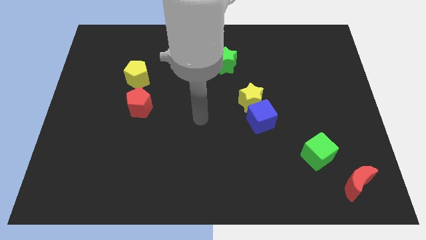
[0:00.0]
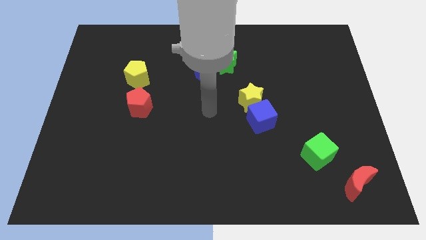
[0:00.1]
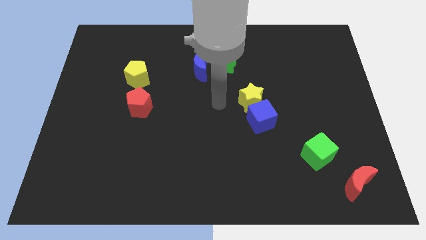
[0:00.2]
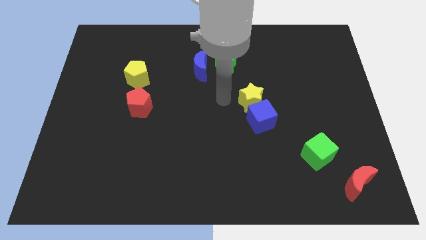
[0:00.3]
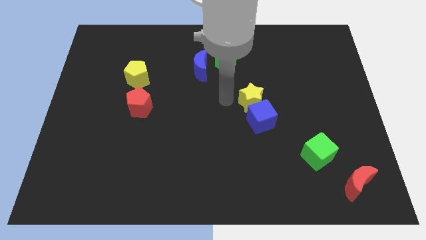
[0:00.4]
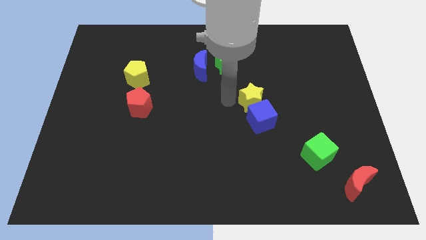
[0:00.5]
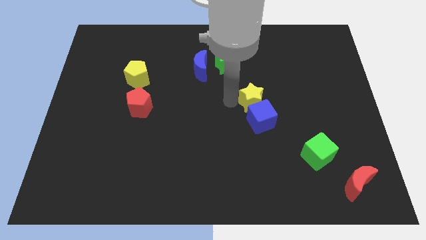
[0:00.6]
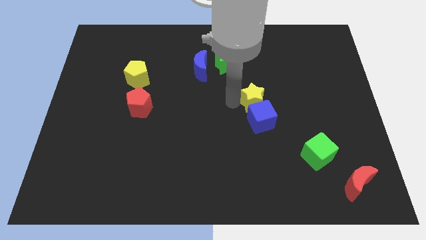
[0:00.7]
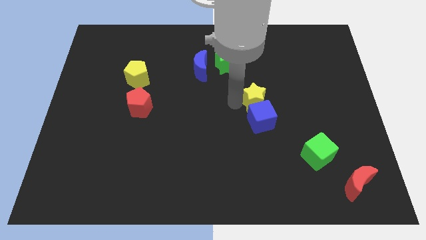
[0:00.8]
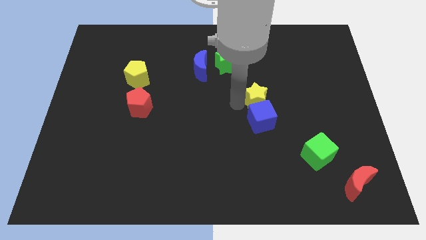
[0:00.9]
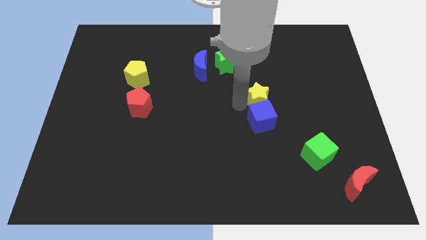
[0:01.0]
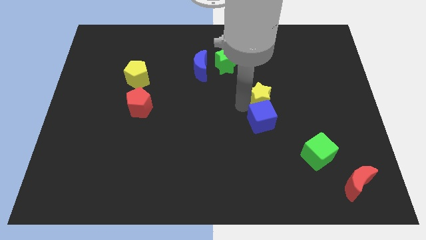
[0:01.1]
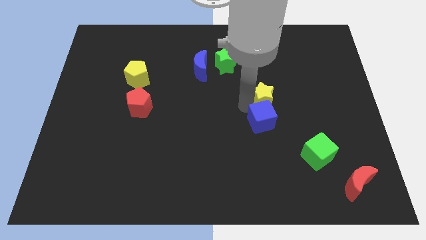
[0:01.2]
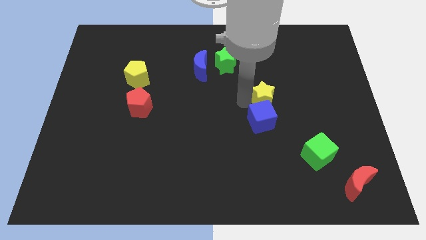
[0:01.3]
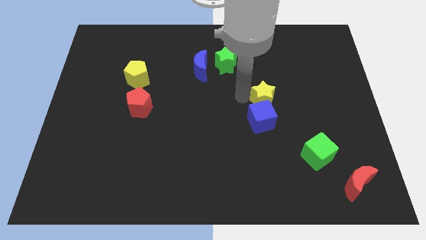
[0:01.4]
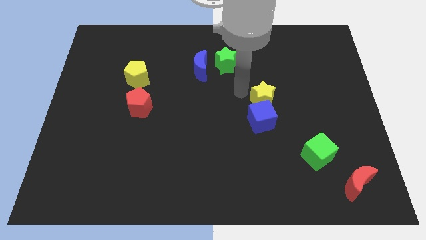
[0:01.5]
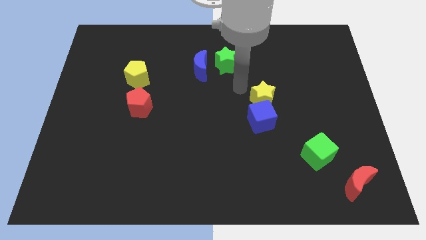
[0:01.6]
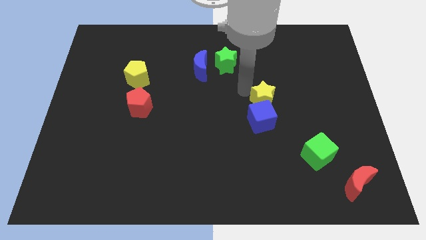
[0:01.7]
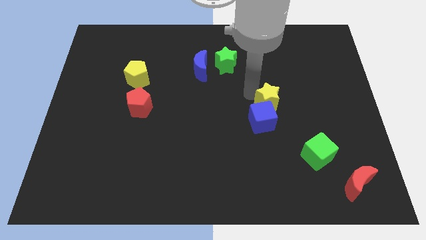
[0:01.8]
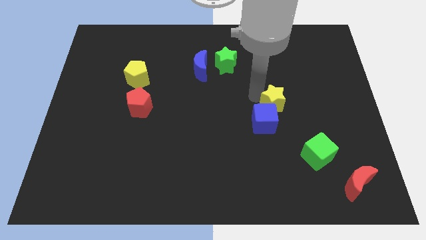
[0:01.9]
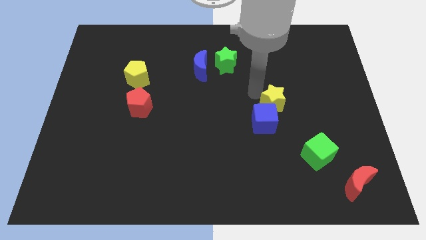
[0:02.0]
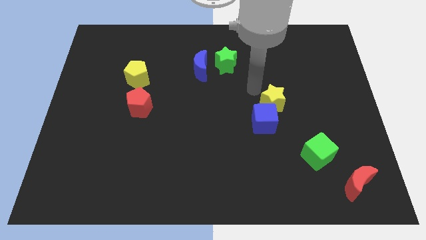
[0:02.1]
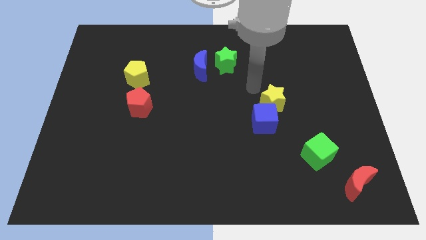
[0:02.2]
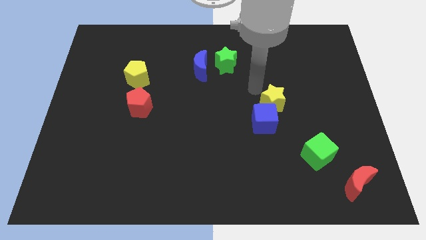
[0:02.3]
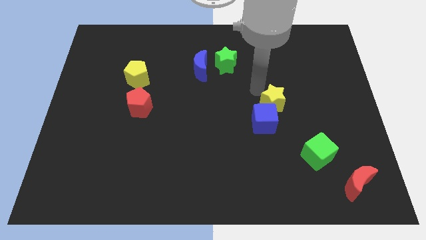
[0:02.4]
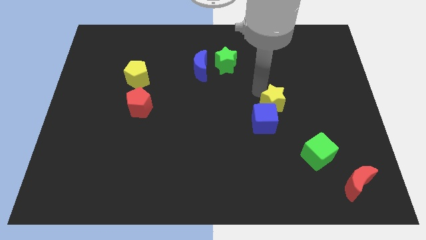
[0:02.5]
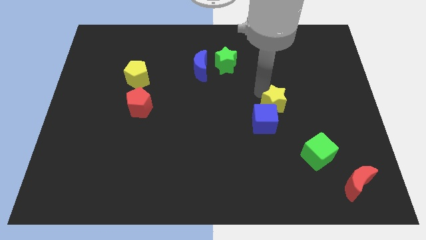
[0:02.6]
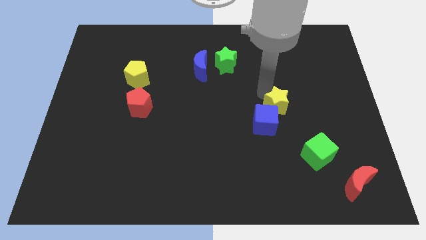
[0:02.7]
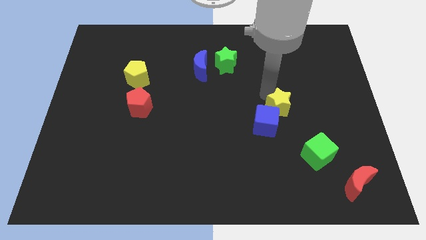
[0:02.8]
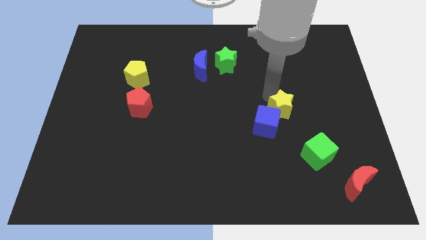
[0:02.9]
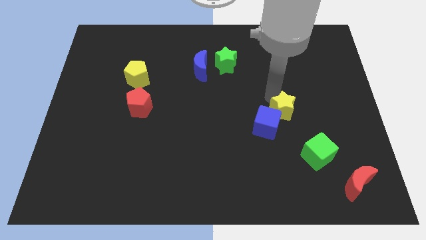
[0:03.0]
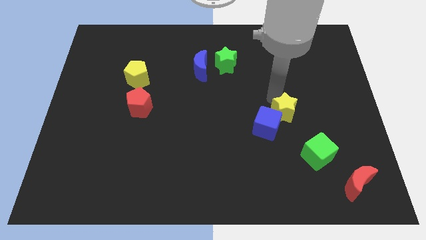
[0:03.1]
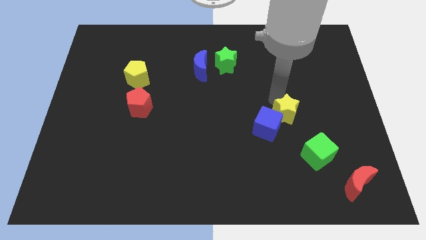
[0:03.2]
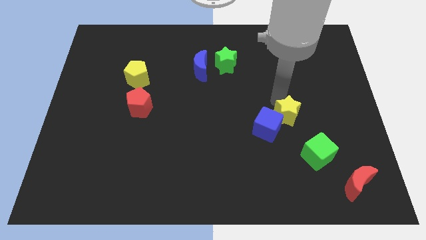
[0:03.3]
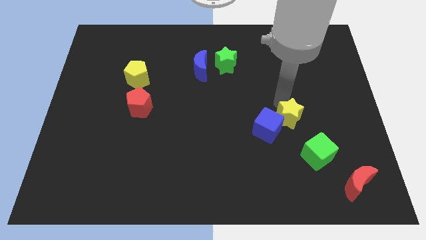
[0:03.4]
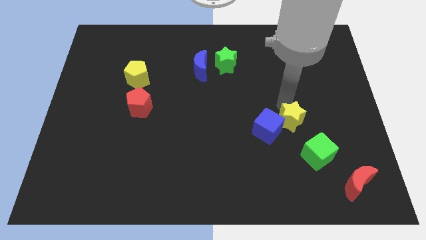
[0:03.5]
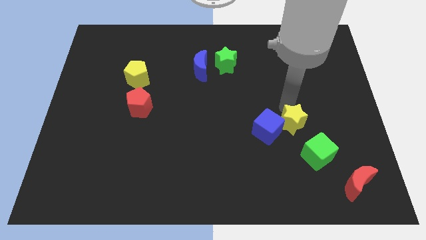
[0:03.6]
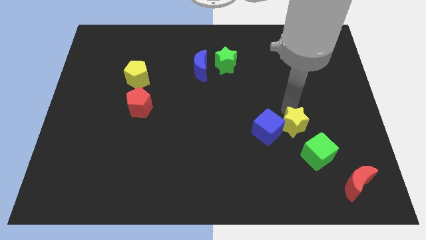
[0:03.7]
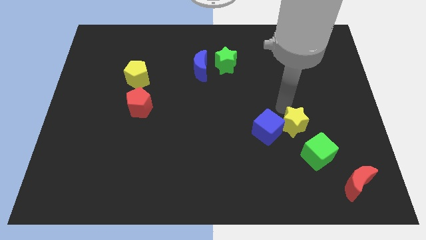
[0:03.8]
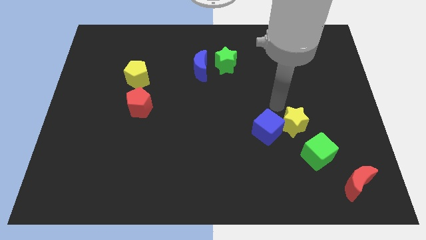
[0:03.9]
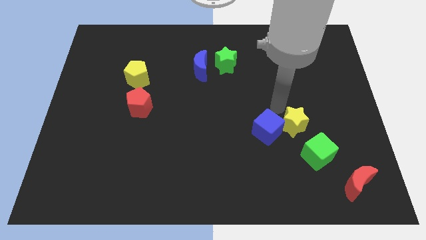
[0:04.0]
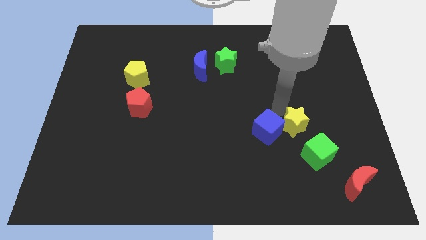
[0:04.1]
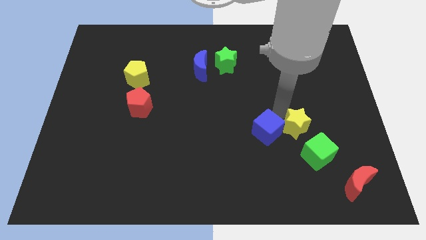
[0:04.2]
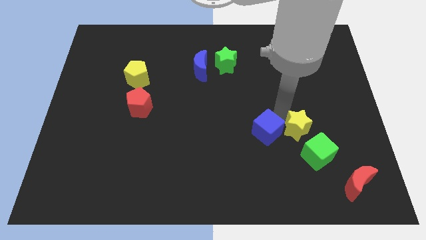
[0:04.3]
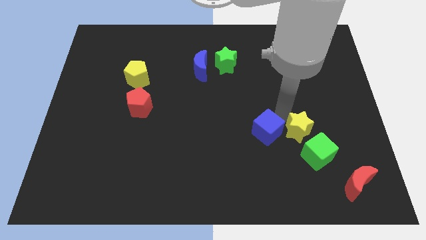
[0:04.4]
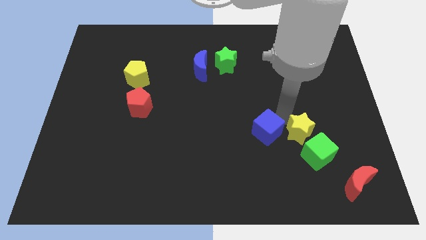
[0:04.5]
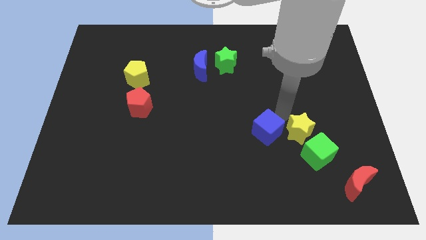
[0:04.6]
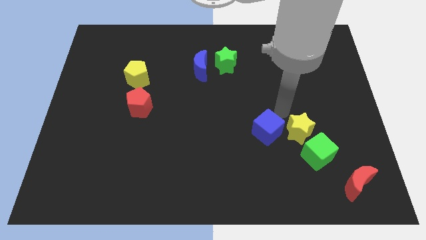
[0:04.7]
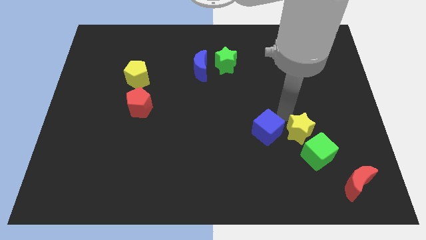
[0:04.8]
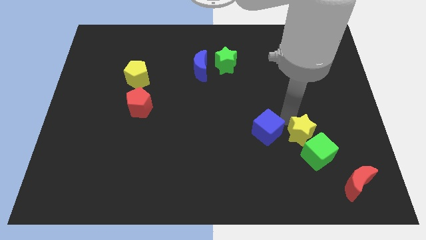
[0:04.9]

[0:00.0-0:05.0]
move the yellow star next to the green cube

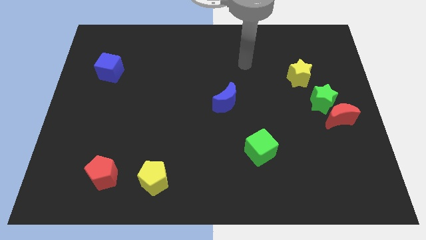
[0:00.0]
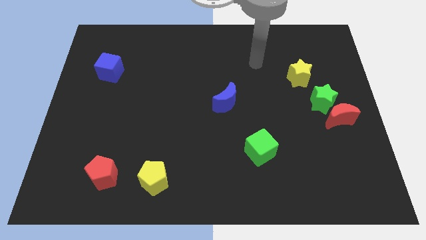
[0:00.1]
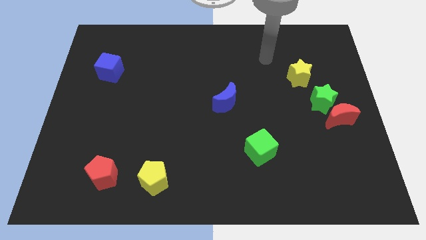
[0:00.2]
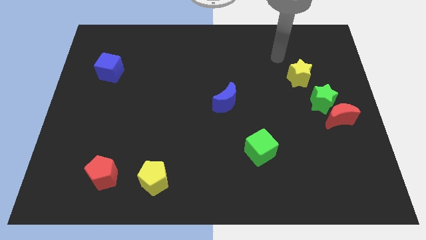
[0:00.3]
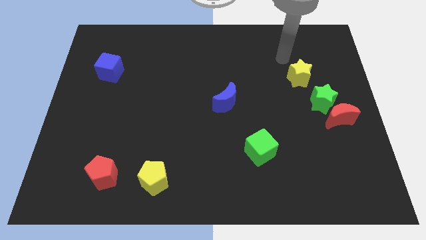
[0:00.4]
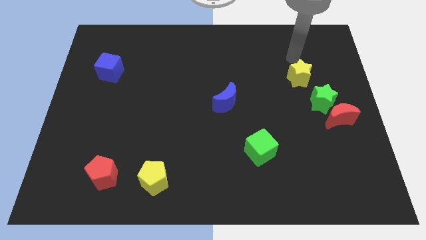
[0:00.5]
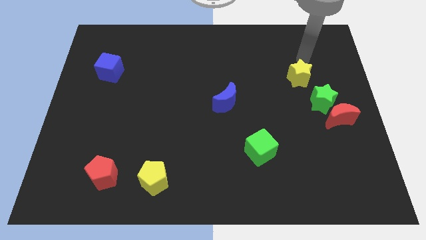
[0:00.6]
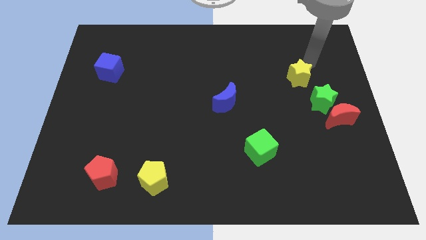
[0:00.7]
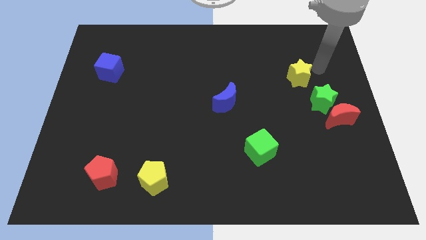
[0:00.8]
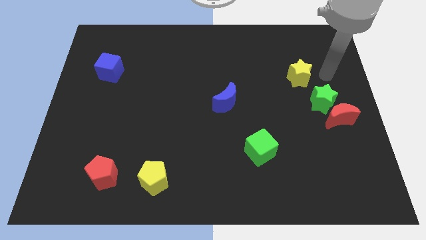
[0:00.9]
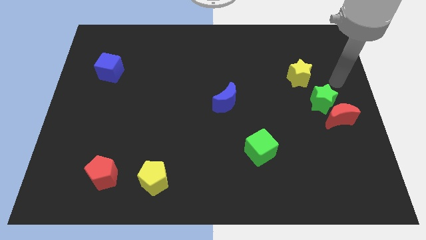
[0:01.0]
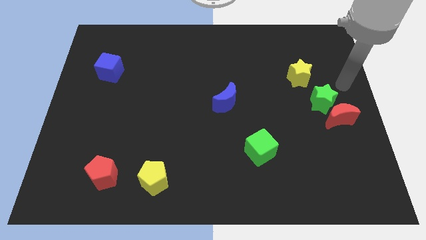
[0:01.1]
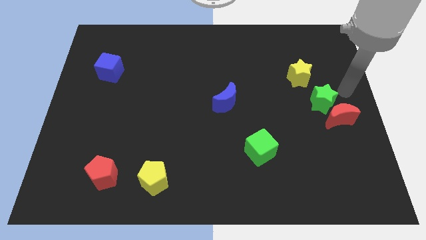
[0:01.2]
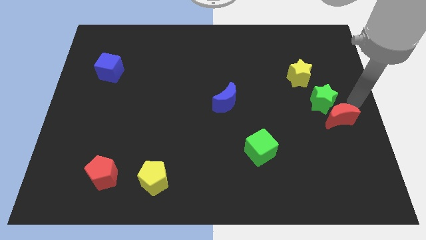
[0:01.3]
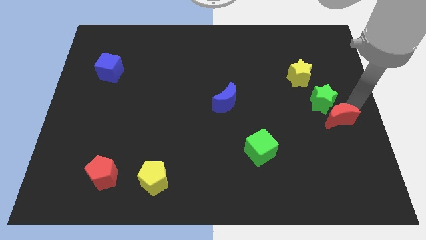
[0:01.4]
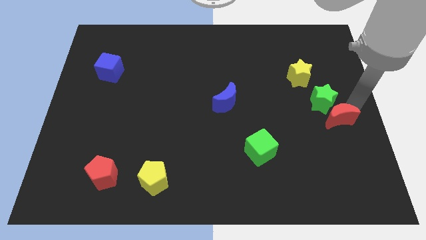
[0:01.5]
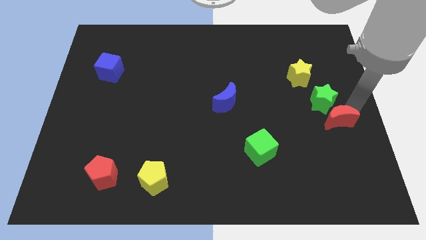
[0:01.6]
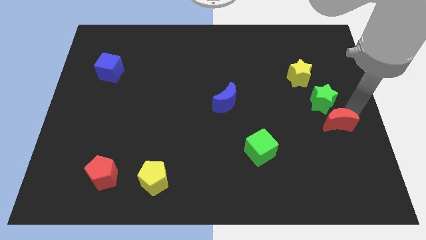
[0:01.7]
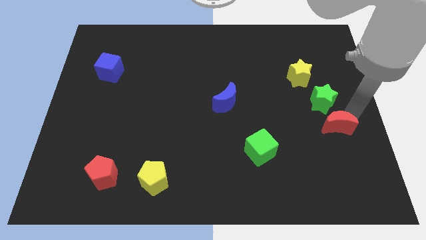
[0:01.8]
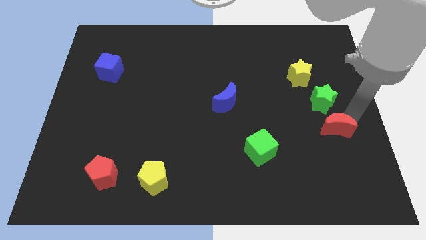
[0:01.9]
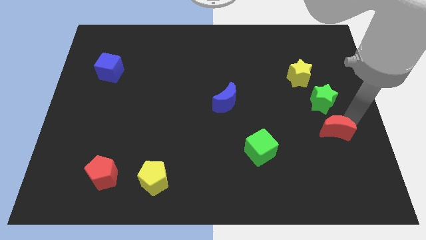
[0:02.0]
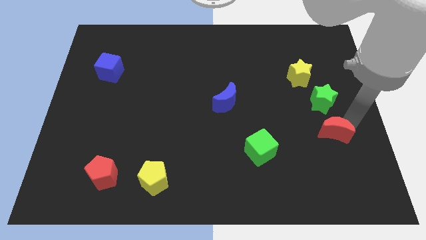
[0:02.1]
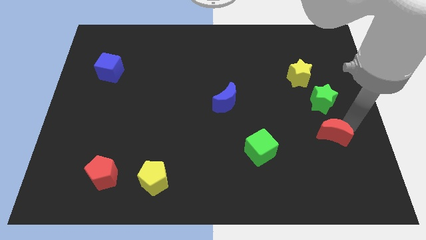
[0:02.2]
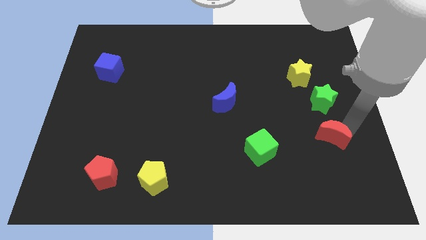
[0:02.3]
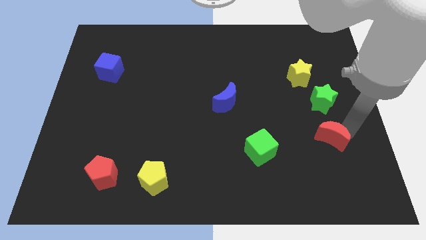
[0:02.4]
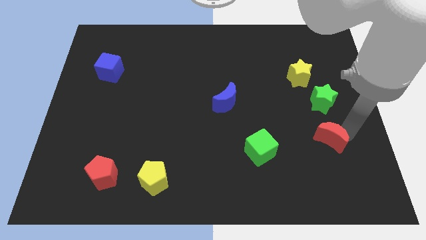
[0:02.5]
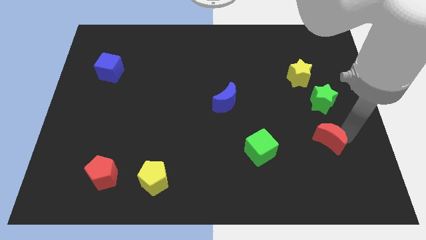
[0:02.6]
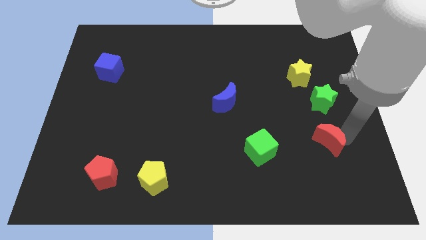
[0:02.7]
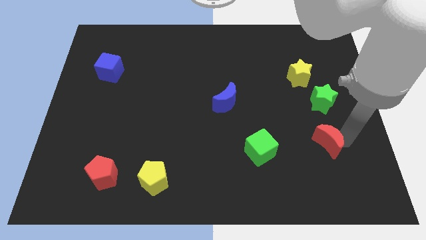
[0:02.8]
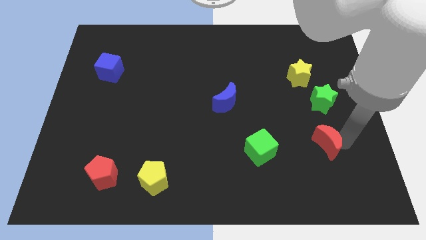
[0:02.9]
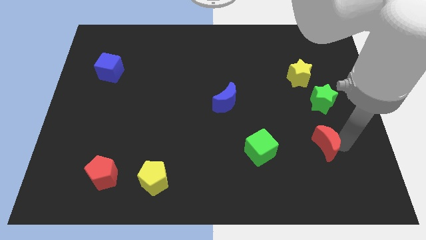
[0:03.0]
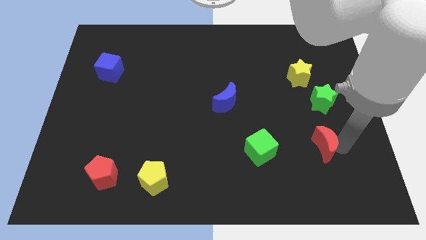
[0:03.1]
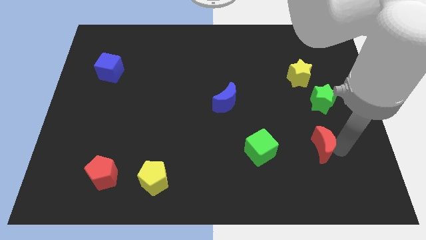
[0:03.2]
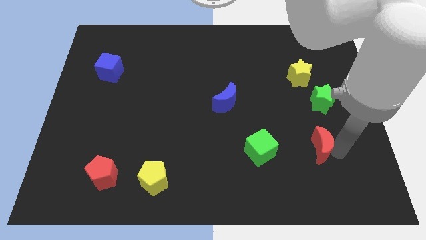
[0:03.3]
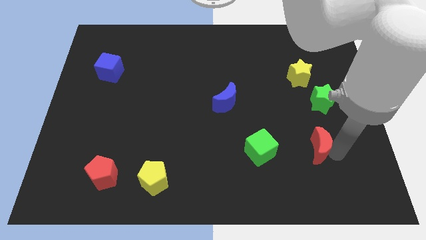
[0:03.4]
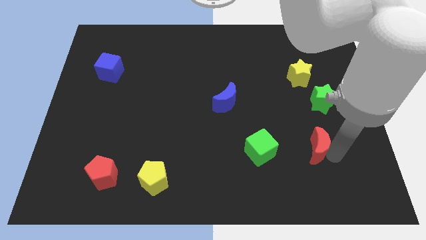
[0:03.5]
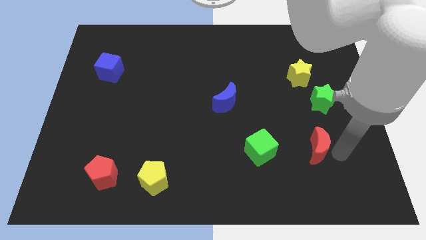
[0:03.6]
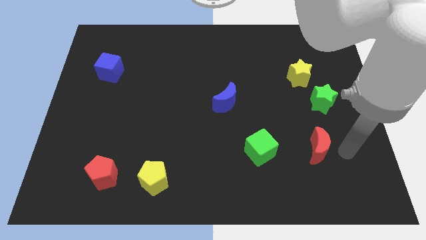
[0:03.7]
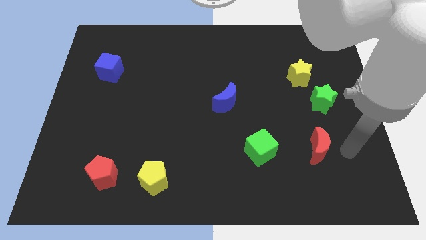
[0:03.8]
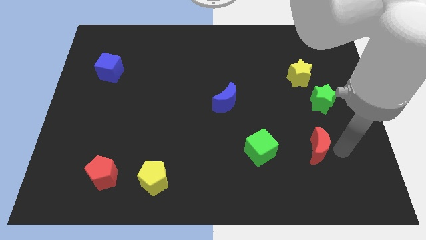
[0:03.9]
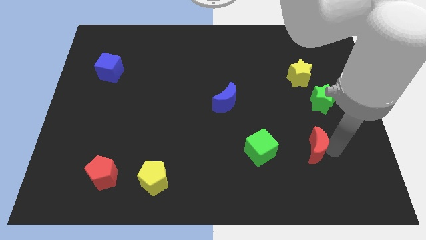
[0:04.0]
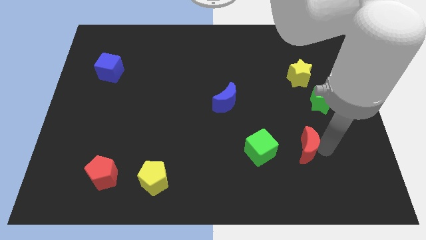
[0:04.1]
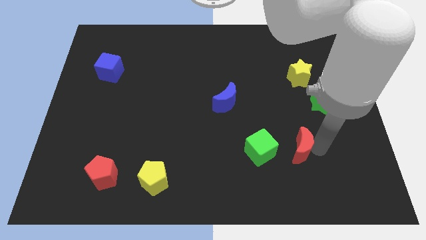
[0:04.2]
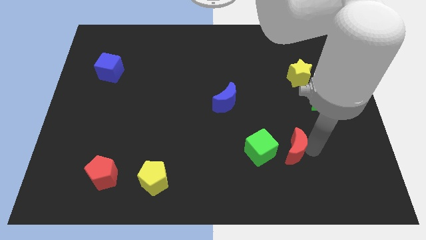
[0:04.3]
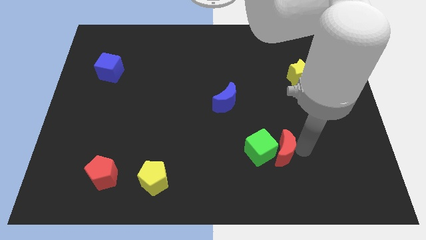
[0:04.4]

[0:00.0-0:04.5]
move the red moon next to the green cube
